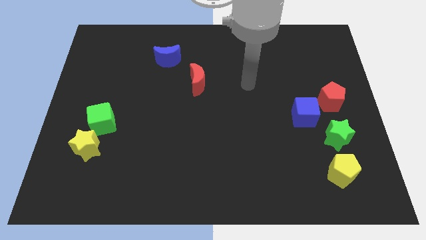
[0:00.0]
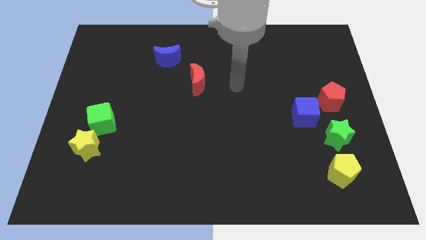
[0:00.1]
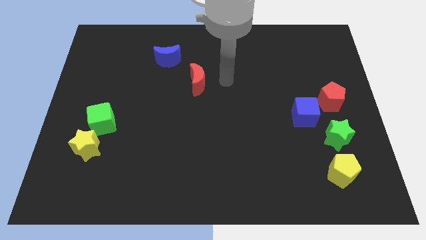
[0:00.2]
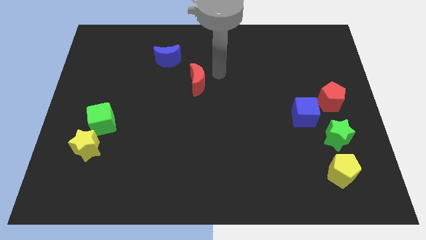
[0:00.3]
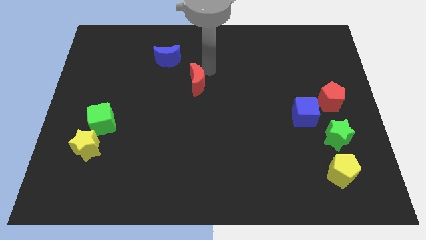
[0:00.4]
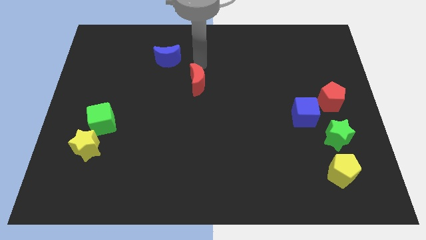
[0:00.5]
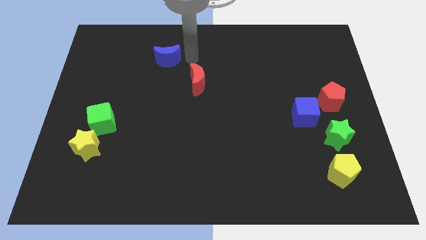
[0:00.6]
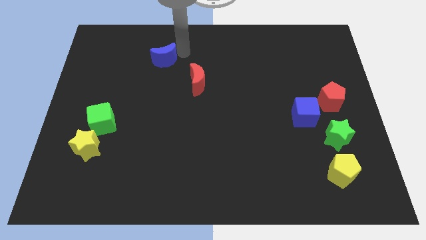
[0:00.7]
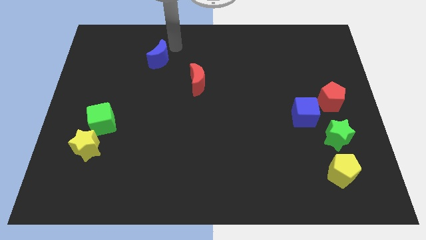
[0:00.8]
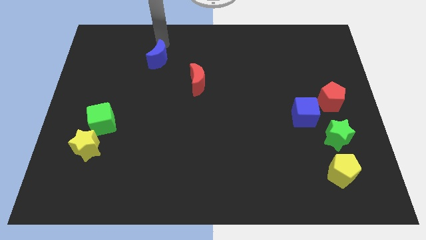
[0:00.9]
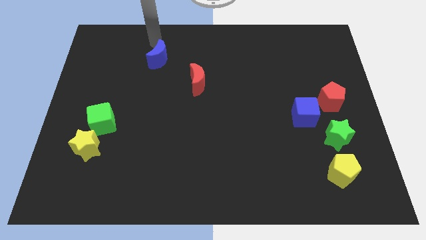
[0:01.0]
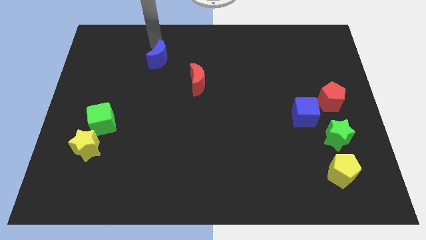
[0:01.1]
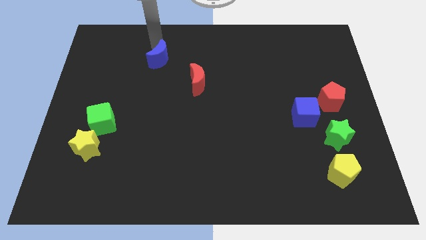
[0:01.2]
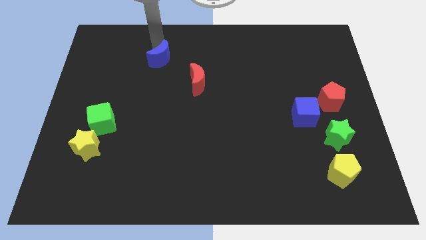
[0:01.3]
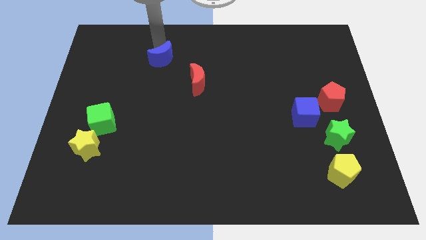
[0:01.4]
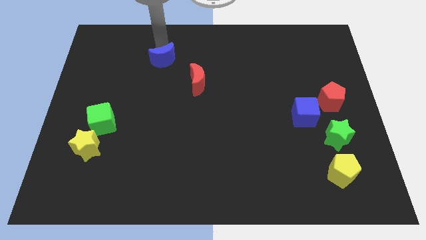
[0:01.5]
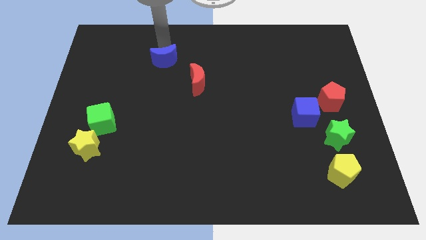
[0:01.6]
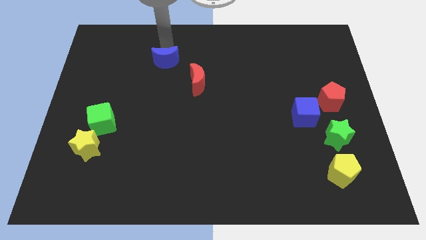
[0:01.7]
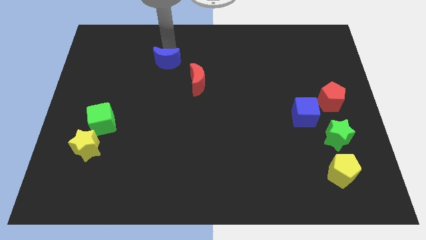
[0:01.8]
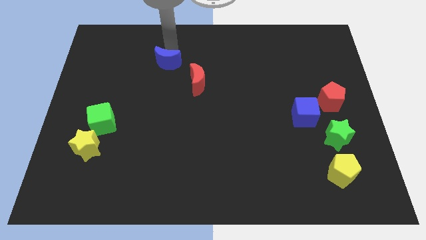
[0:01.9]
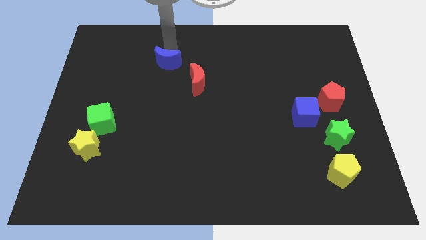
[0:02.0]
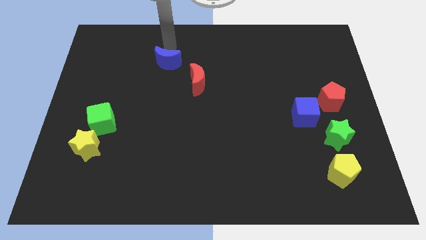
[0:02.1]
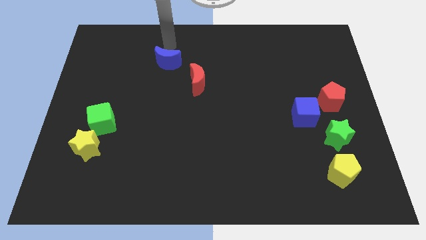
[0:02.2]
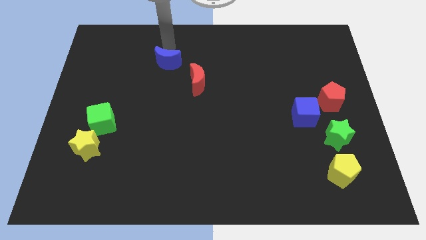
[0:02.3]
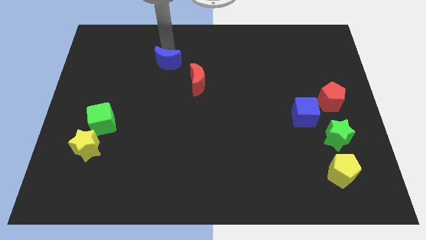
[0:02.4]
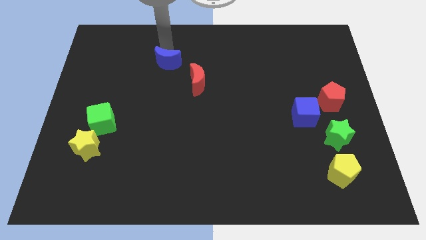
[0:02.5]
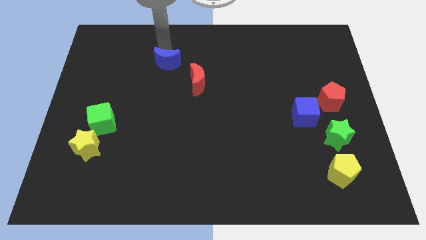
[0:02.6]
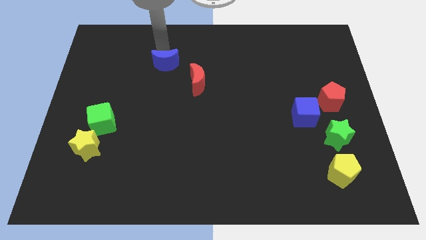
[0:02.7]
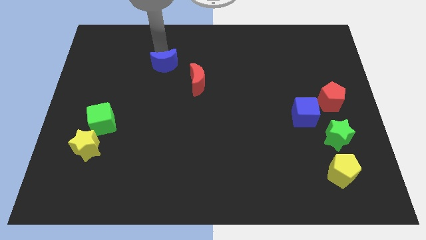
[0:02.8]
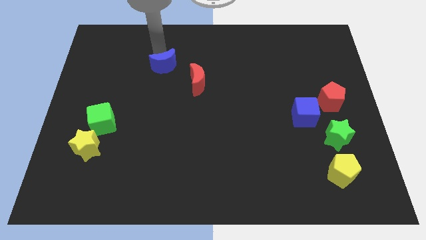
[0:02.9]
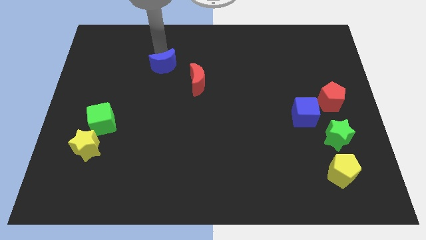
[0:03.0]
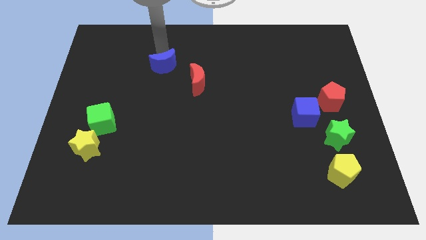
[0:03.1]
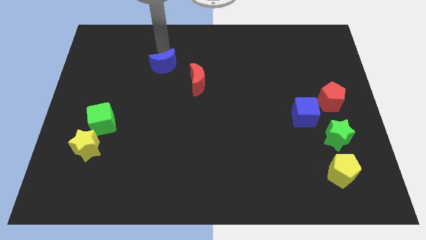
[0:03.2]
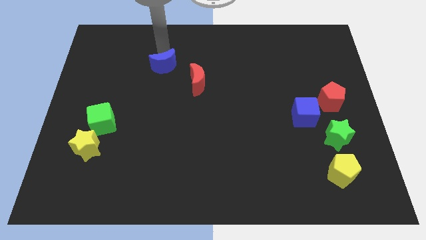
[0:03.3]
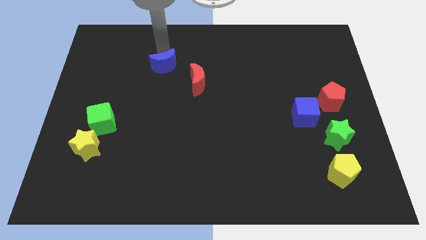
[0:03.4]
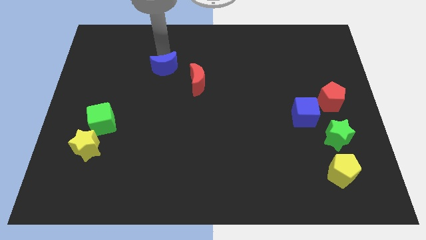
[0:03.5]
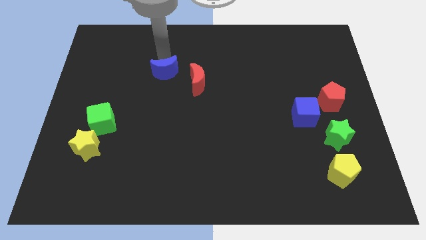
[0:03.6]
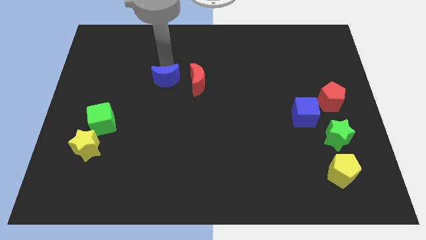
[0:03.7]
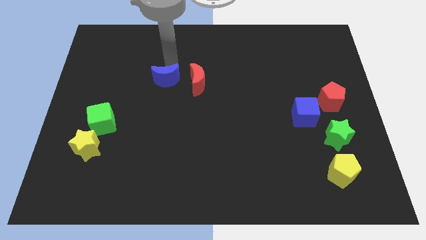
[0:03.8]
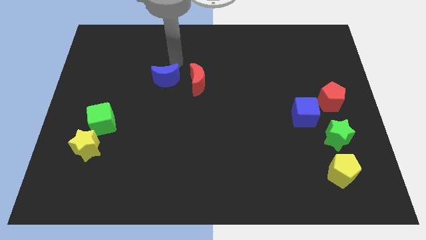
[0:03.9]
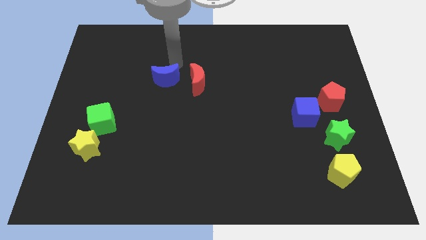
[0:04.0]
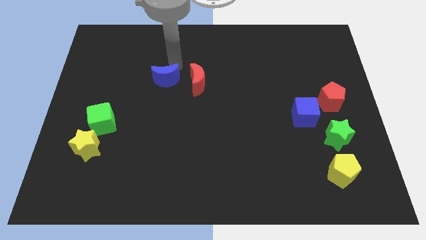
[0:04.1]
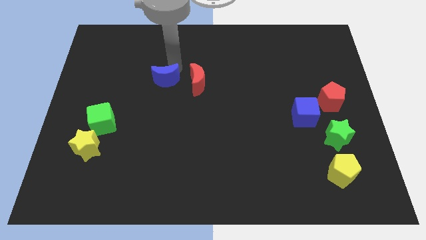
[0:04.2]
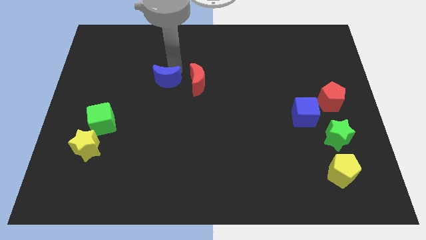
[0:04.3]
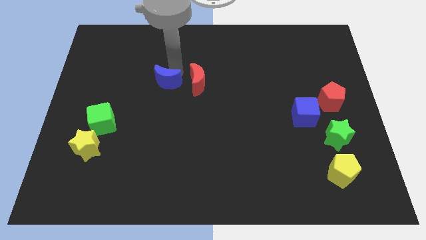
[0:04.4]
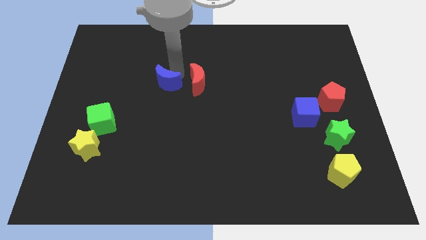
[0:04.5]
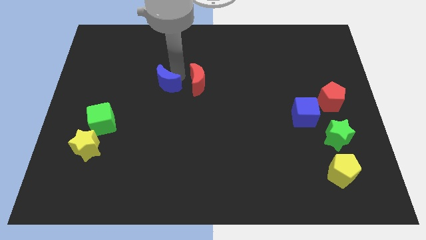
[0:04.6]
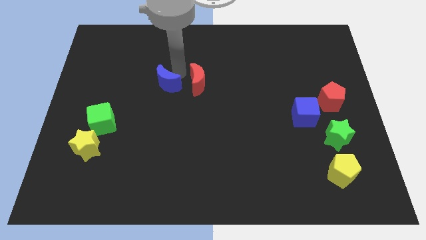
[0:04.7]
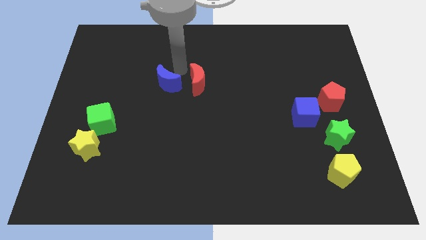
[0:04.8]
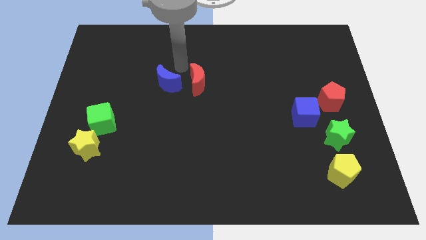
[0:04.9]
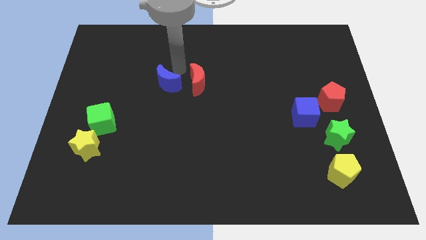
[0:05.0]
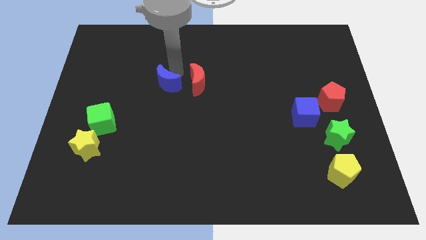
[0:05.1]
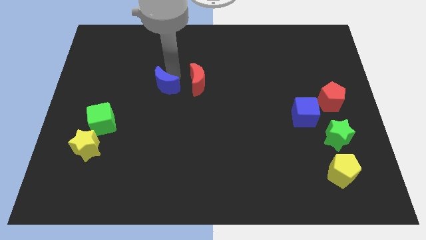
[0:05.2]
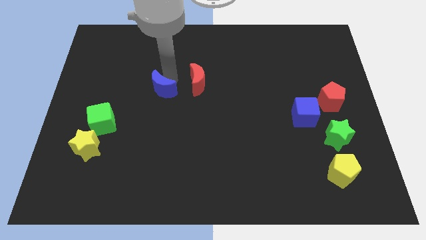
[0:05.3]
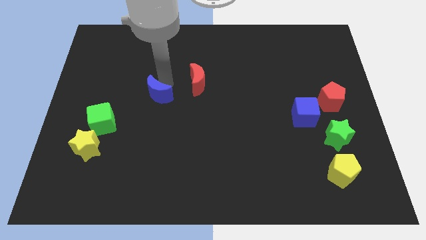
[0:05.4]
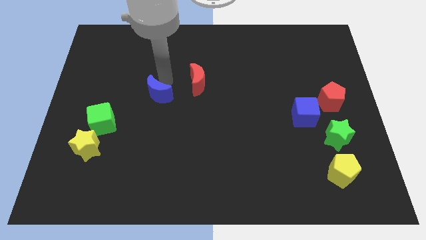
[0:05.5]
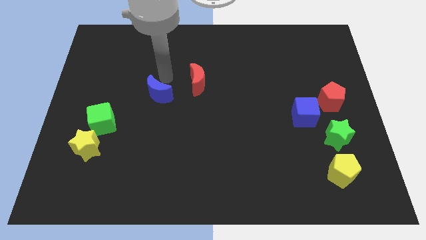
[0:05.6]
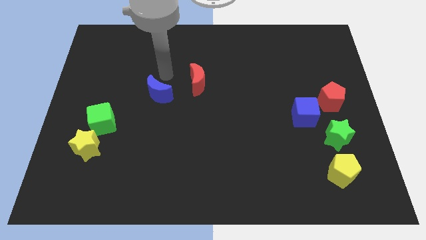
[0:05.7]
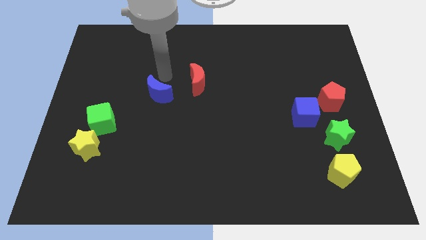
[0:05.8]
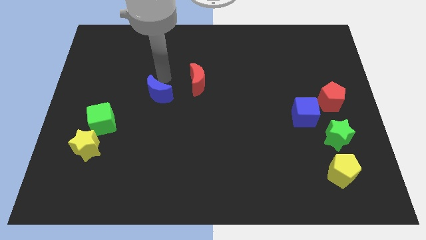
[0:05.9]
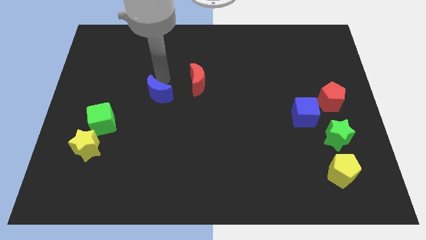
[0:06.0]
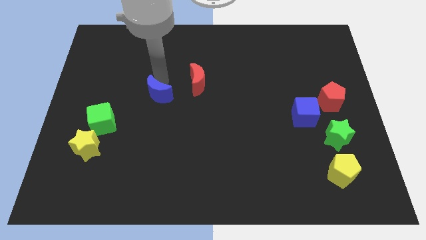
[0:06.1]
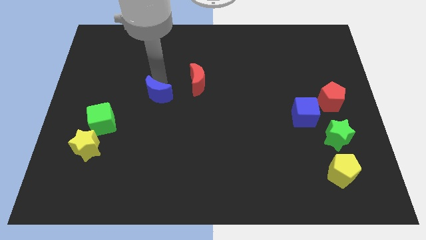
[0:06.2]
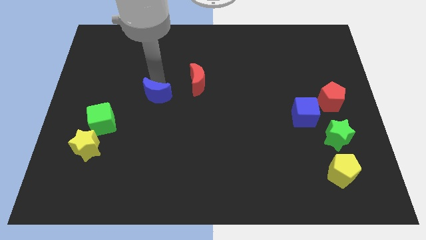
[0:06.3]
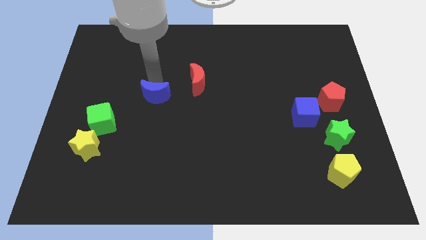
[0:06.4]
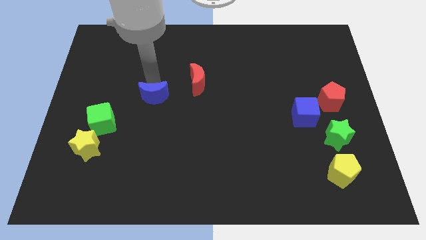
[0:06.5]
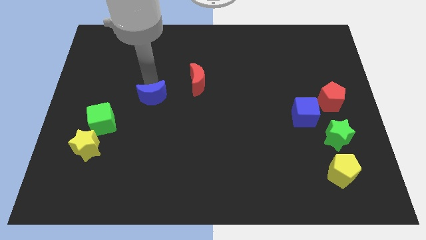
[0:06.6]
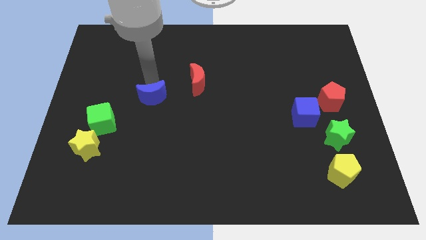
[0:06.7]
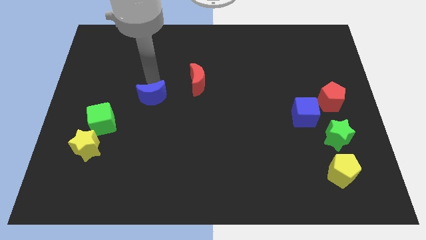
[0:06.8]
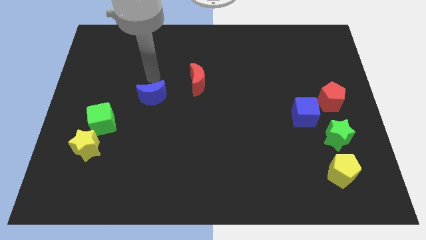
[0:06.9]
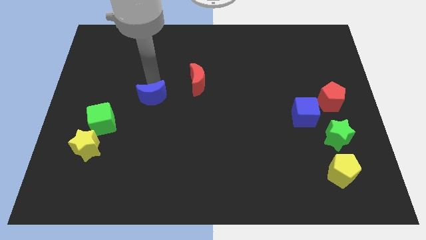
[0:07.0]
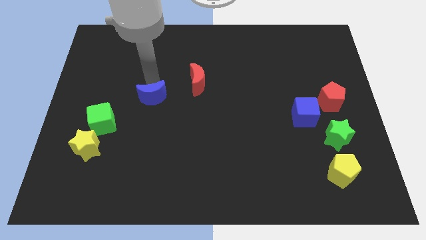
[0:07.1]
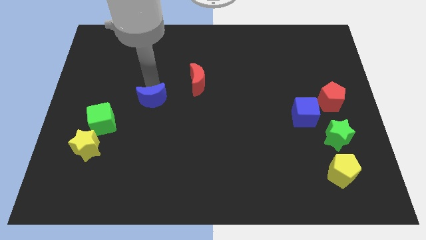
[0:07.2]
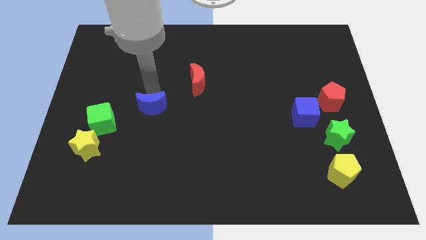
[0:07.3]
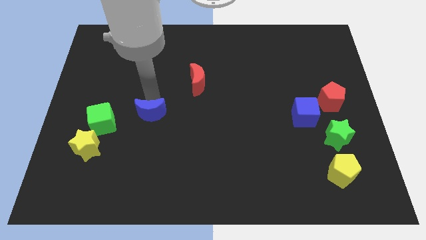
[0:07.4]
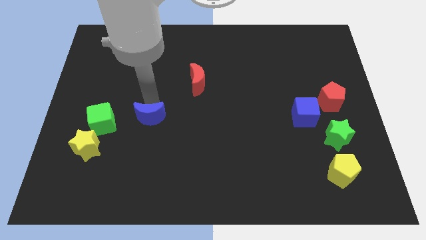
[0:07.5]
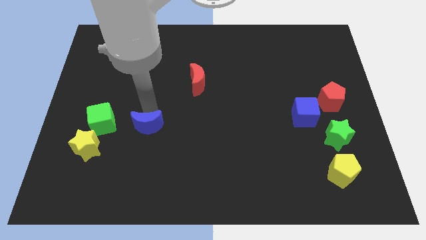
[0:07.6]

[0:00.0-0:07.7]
move the blue moon downwards
